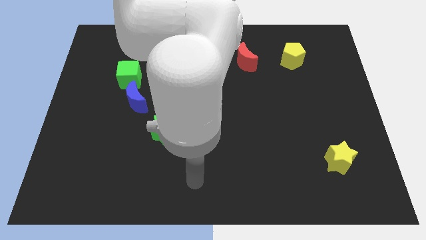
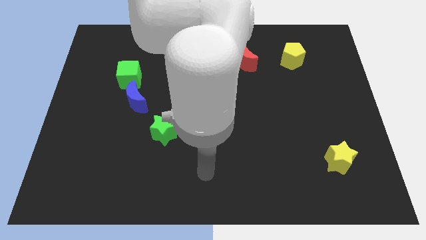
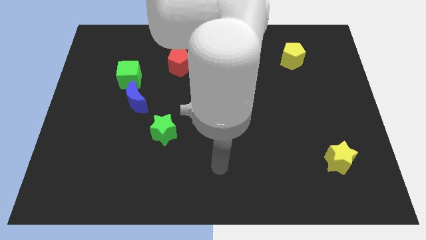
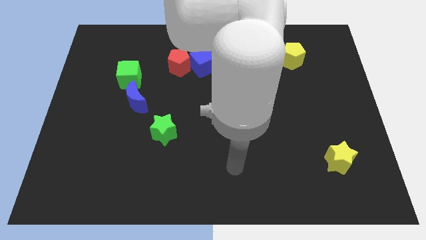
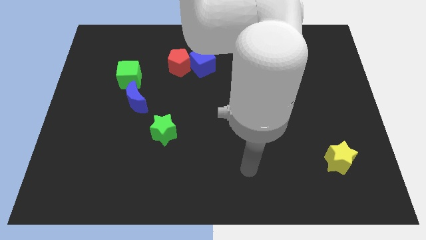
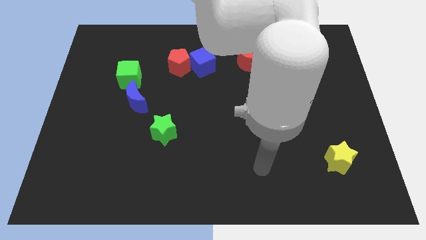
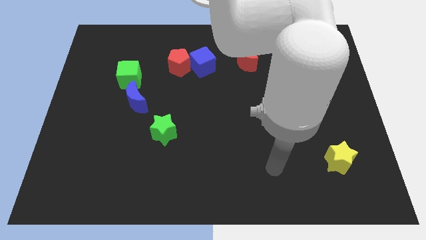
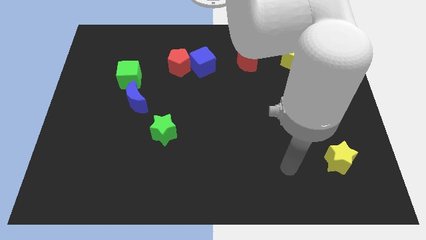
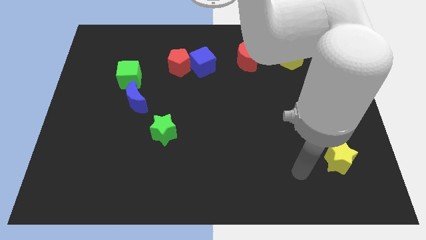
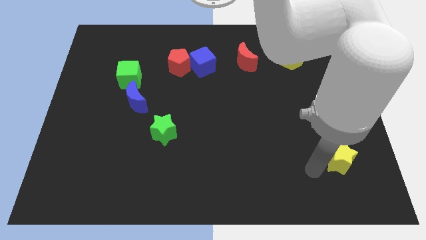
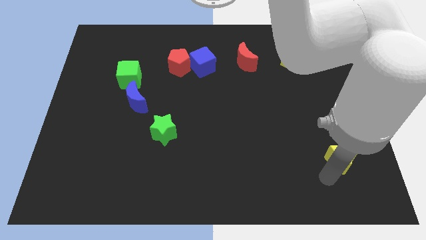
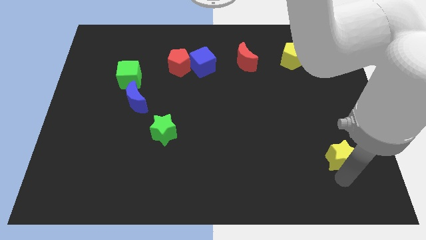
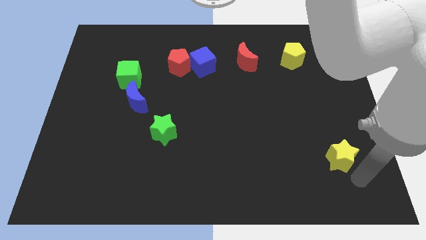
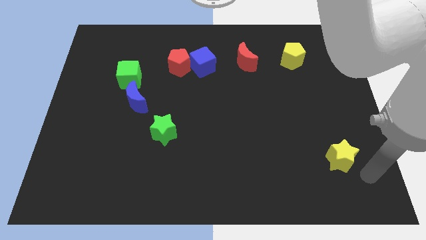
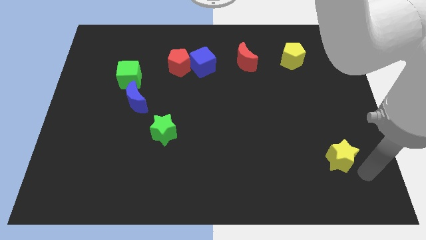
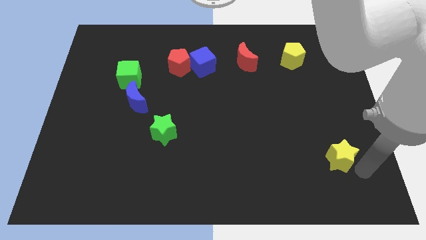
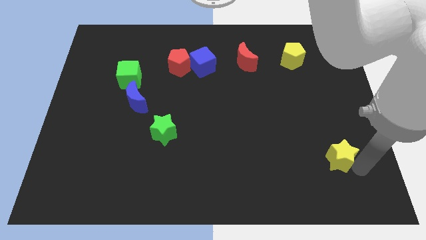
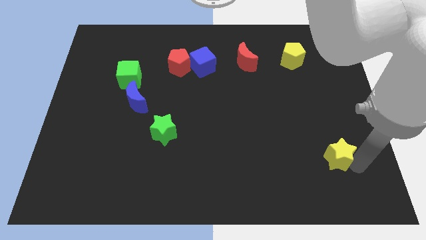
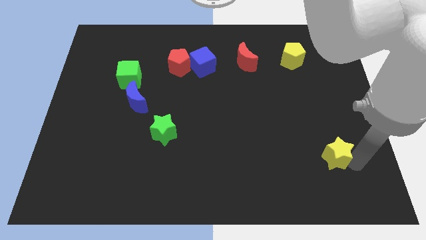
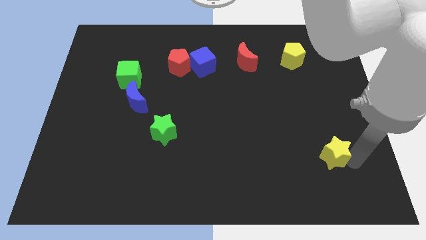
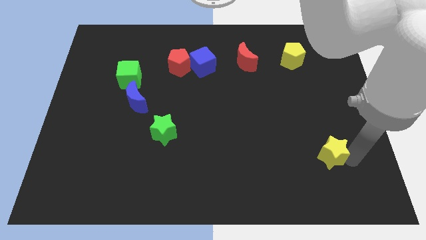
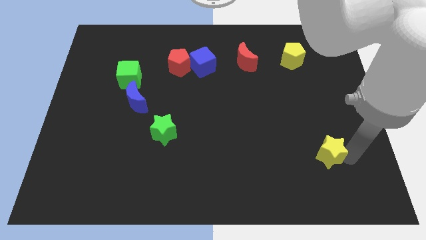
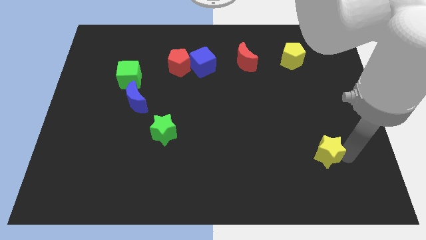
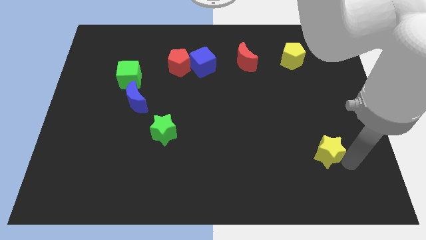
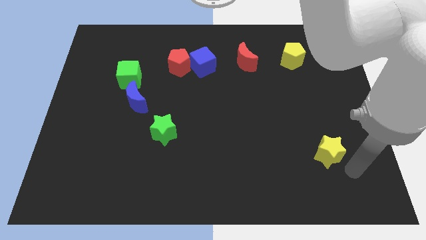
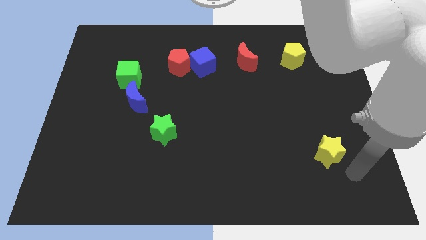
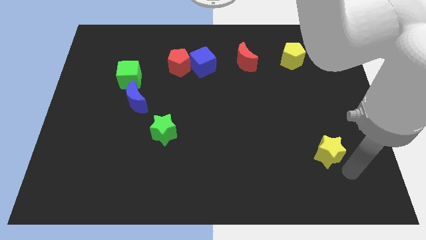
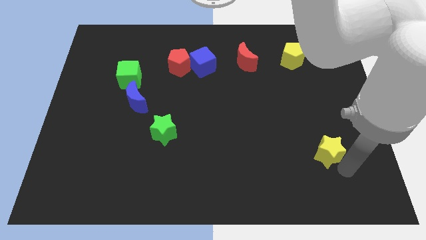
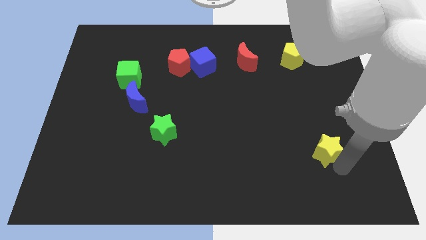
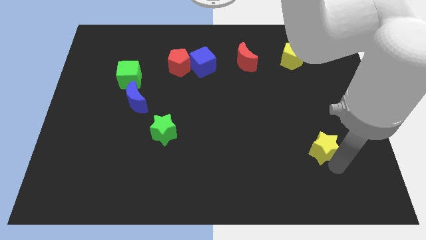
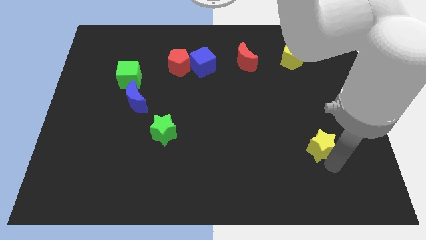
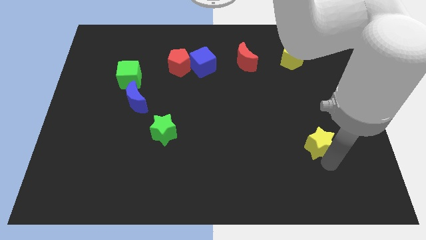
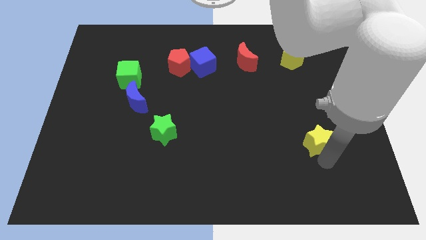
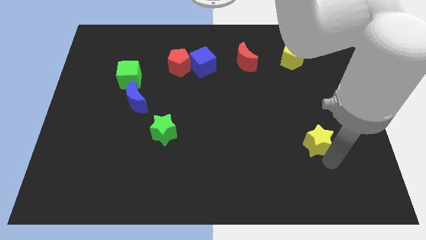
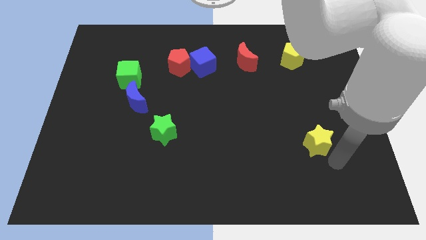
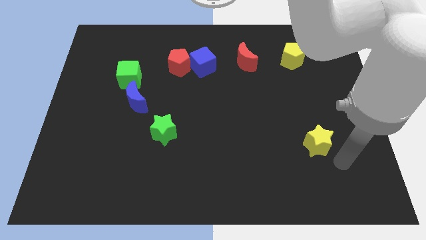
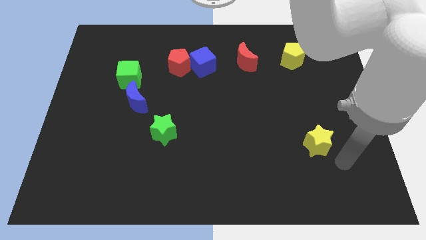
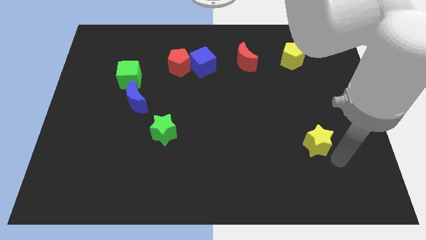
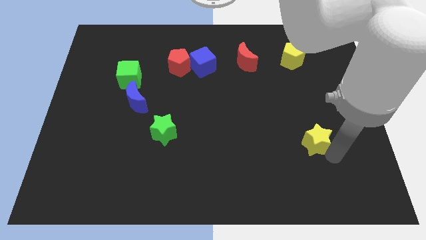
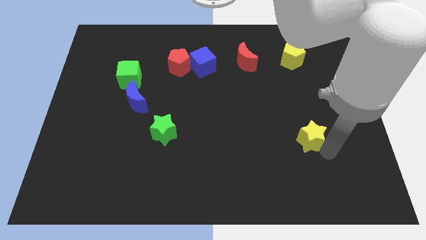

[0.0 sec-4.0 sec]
push the yellow star diagonally upwards and to the left somewhat

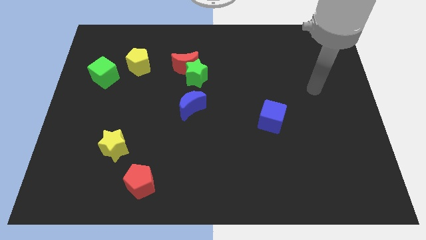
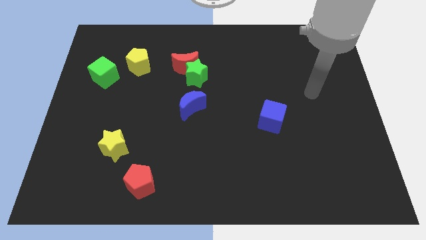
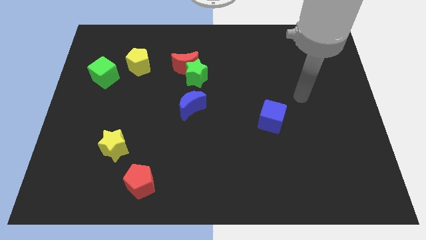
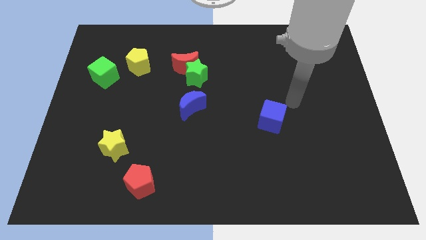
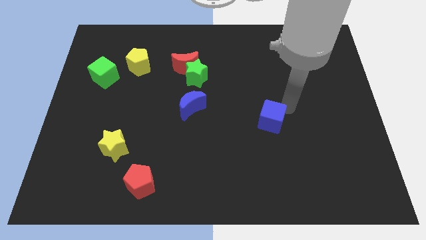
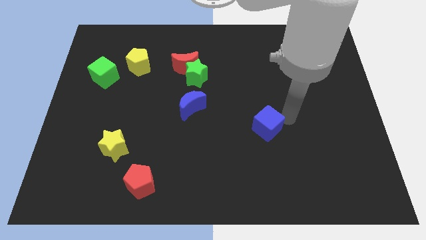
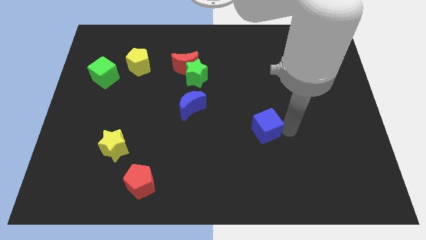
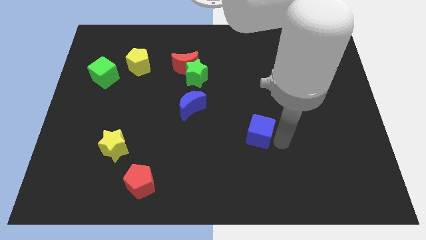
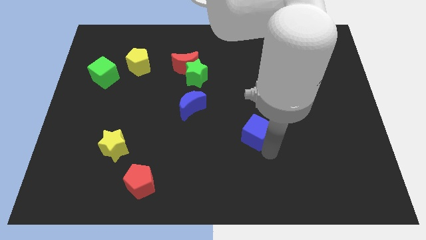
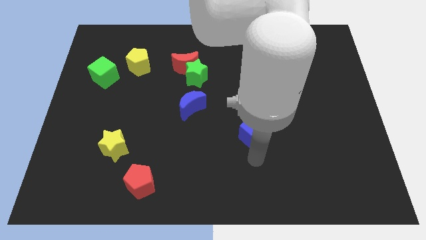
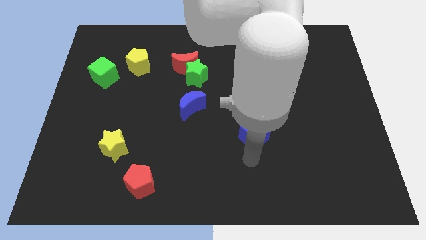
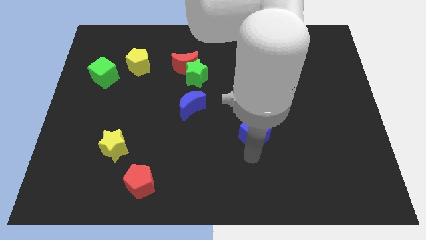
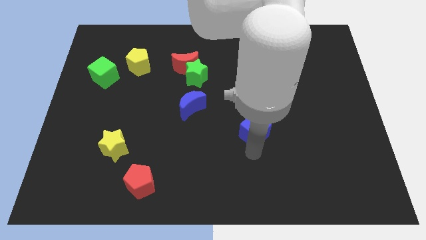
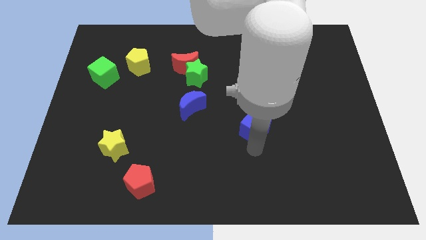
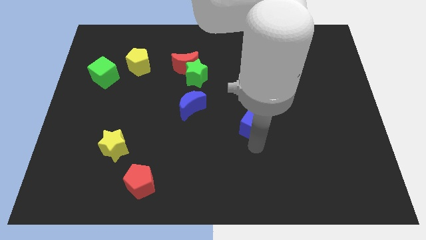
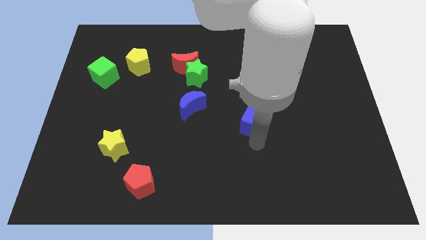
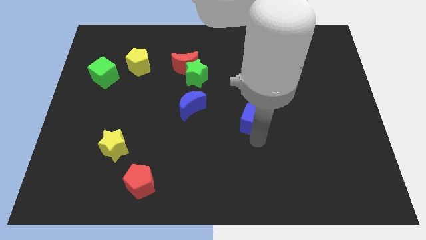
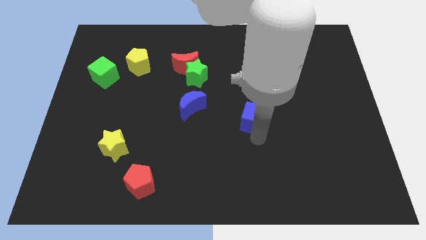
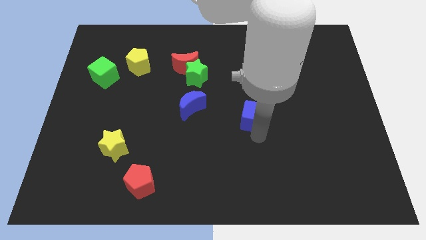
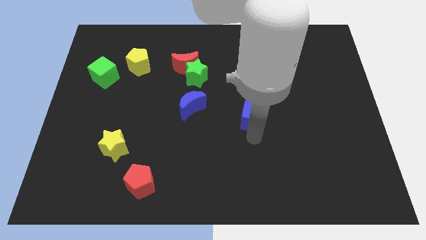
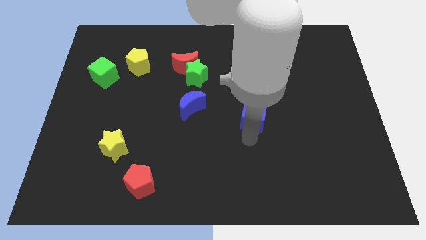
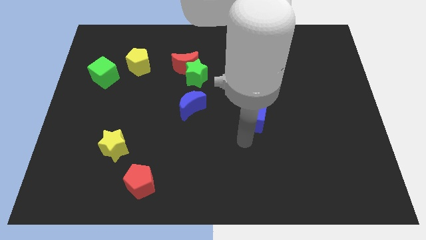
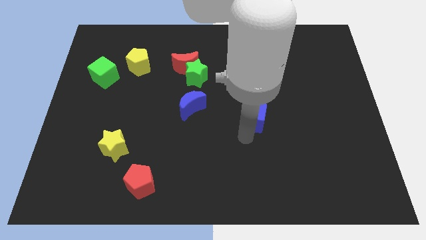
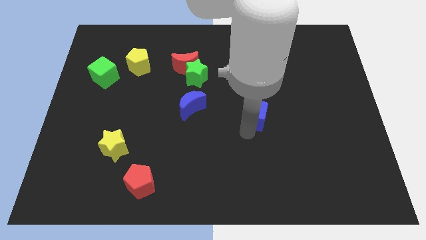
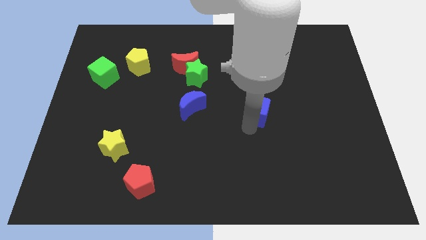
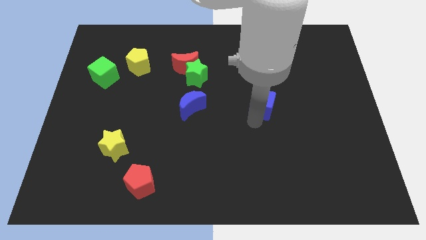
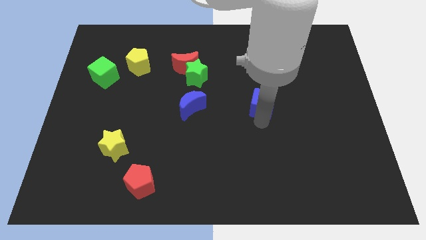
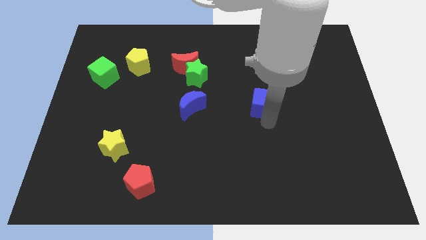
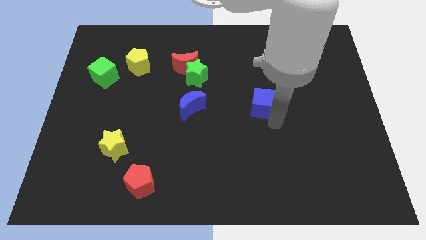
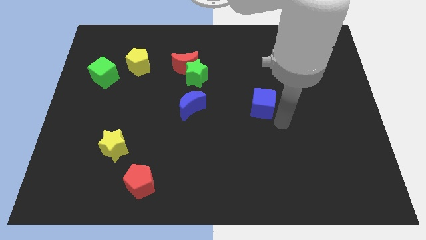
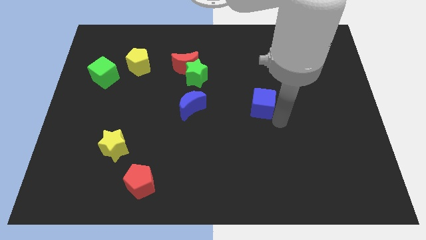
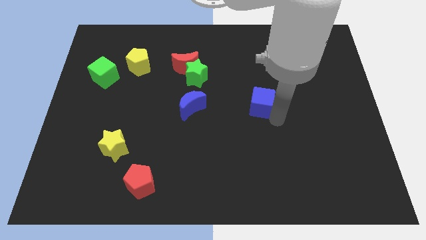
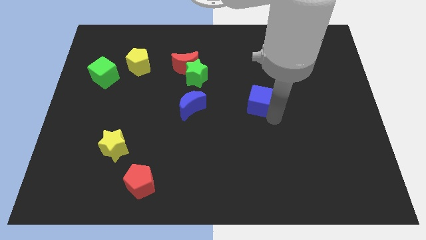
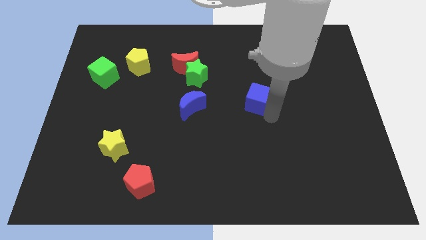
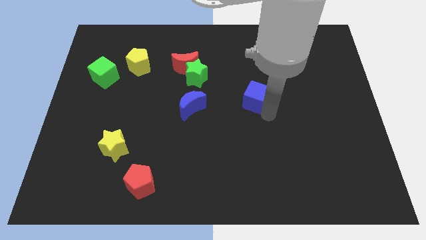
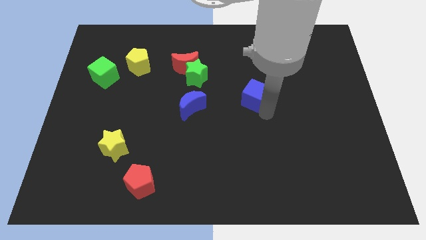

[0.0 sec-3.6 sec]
push the blue cube diagonally up and left a bit

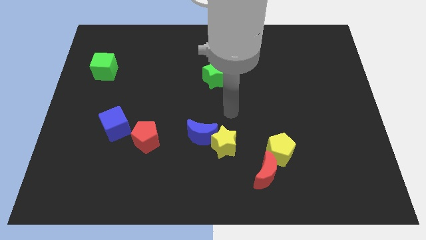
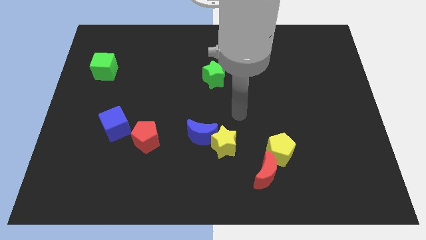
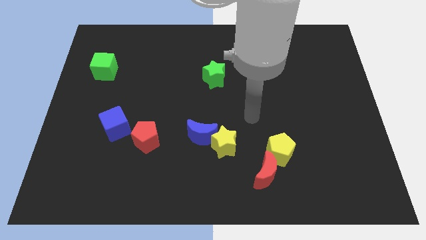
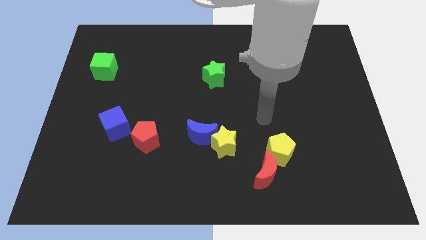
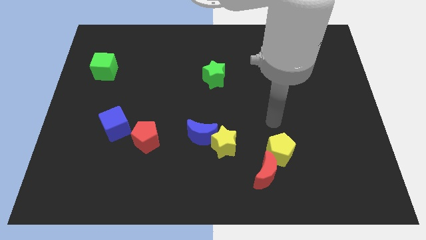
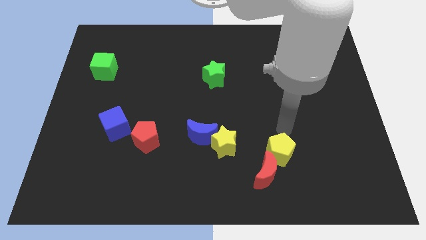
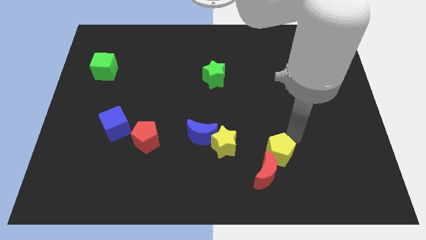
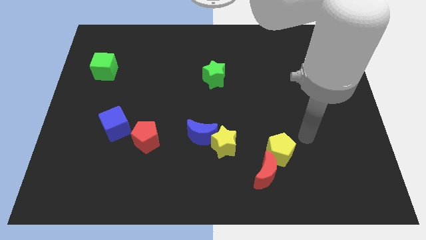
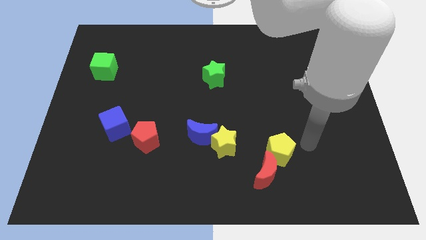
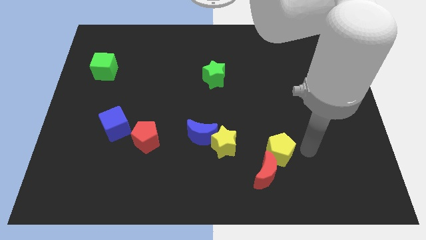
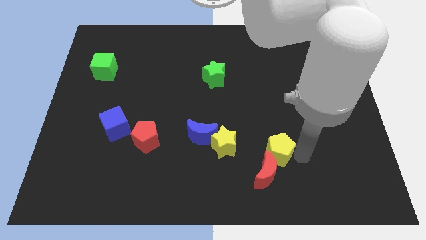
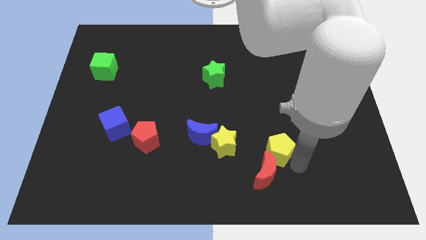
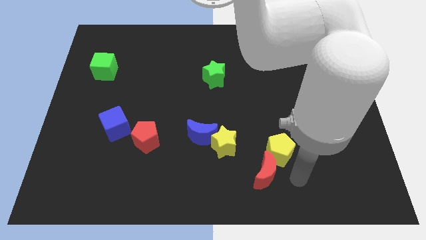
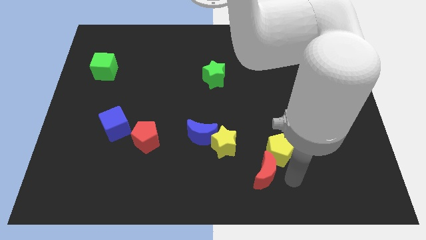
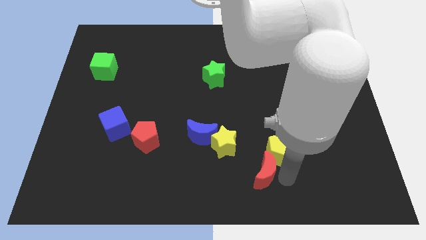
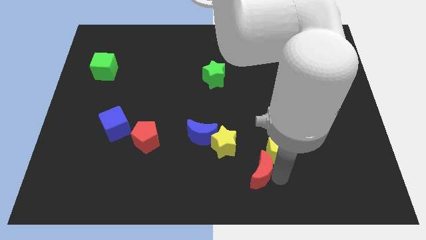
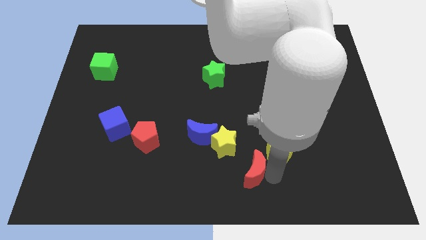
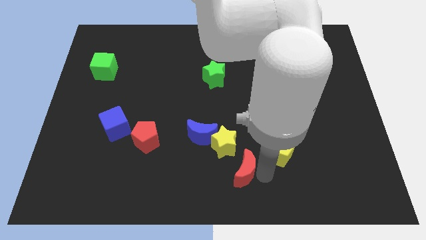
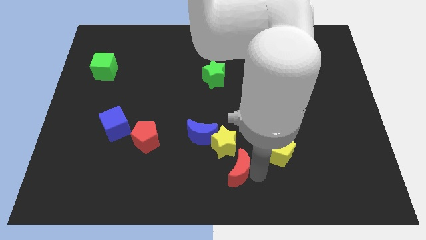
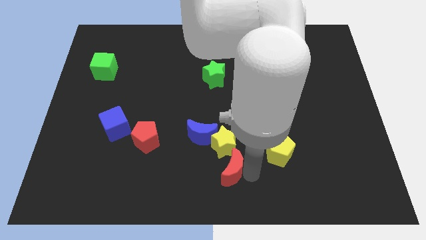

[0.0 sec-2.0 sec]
slide the red moon to the left a bit
